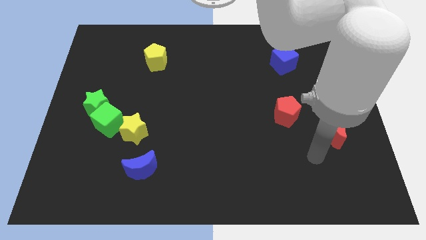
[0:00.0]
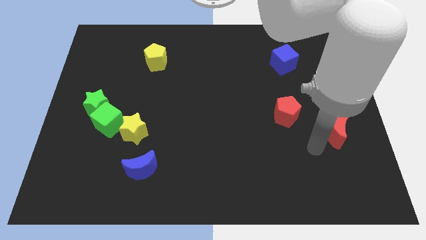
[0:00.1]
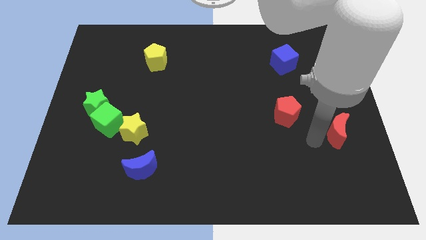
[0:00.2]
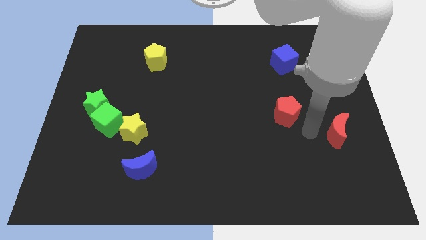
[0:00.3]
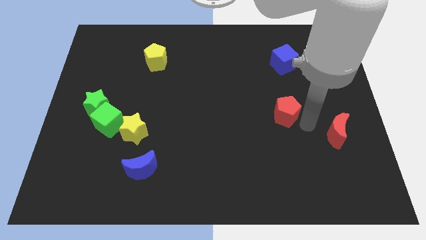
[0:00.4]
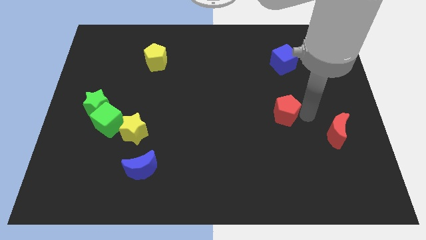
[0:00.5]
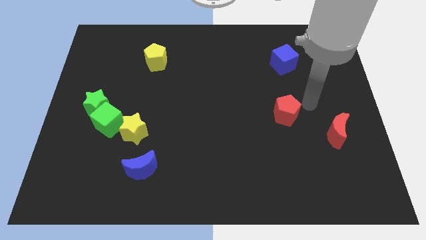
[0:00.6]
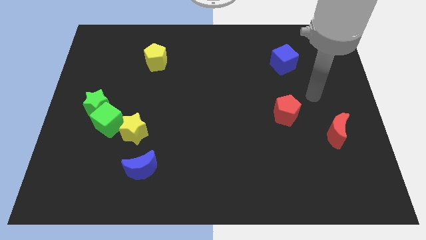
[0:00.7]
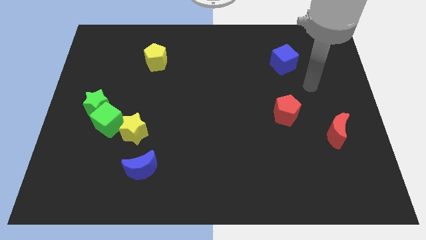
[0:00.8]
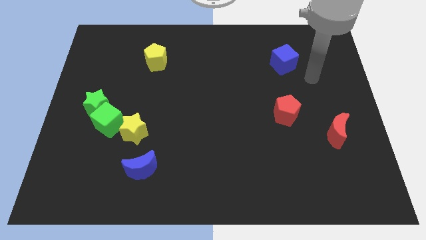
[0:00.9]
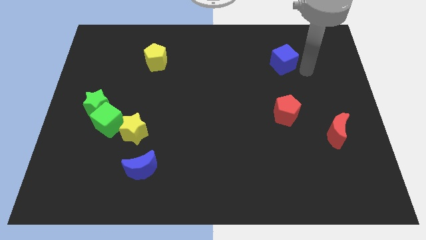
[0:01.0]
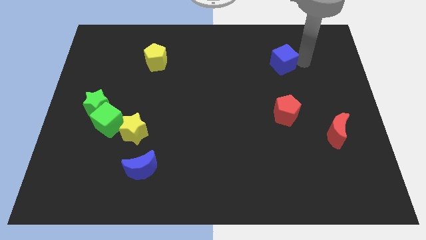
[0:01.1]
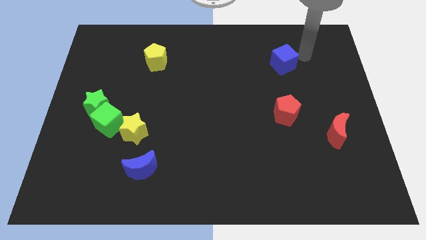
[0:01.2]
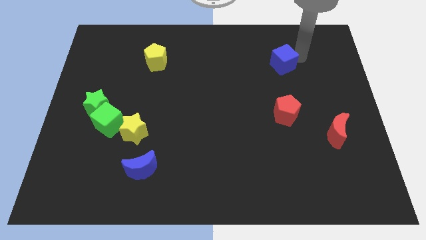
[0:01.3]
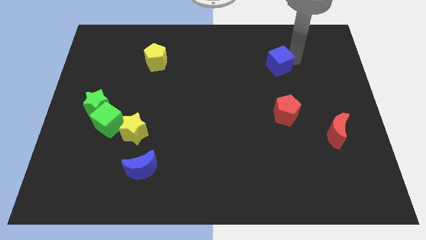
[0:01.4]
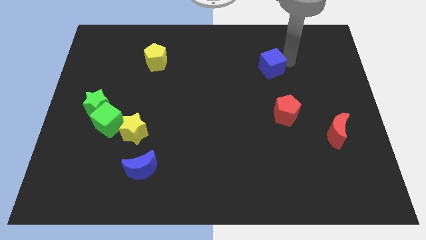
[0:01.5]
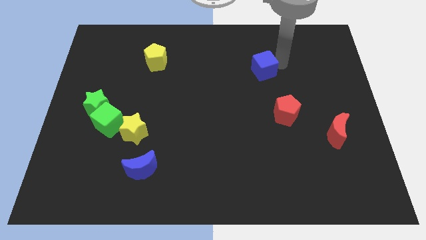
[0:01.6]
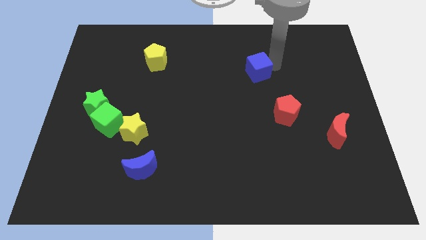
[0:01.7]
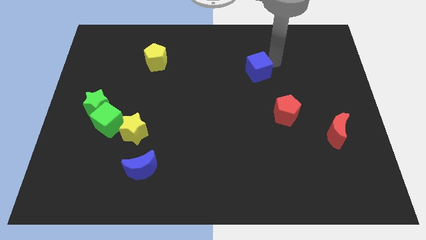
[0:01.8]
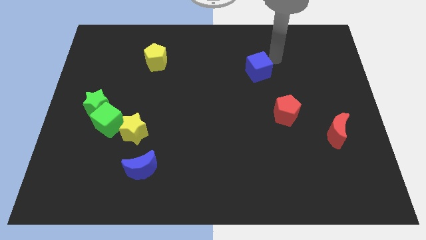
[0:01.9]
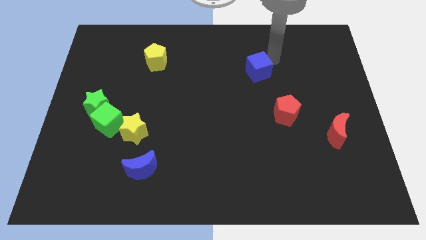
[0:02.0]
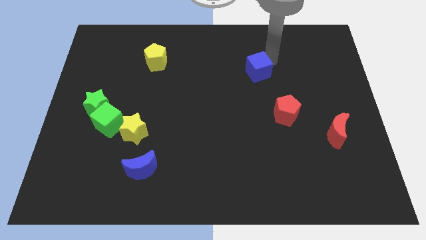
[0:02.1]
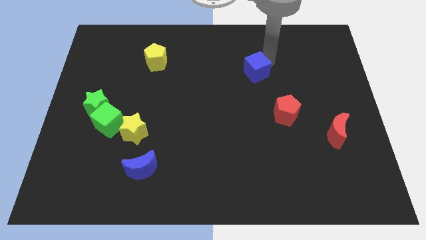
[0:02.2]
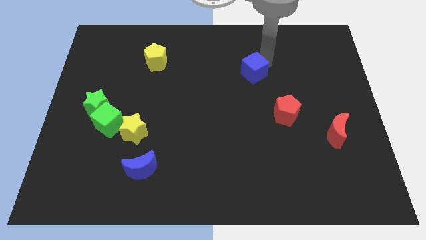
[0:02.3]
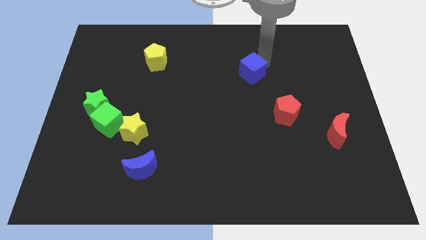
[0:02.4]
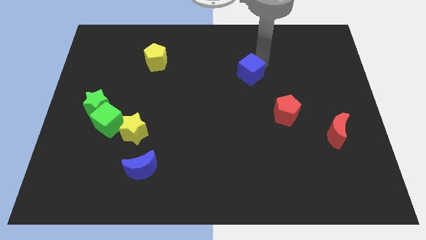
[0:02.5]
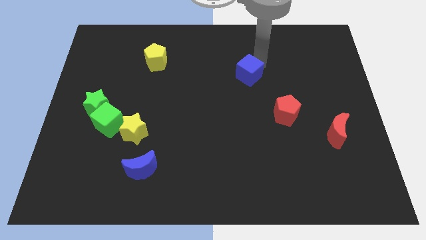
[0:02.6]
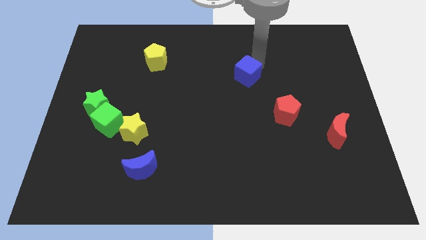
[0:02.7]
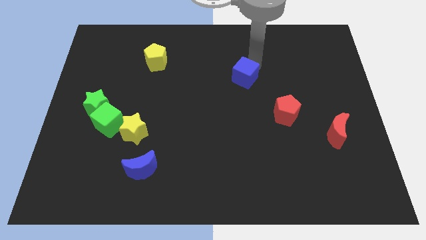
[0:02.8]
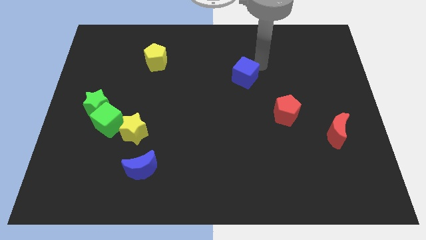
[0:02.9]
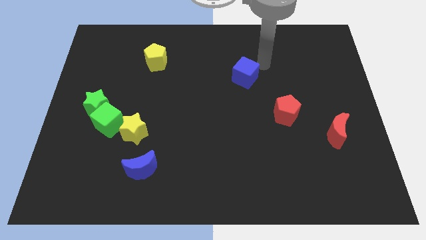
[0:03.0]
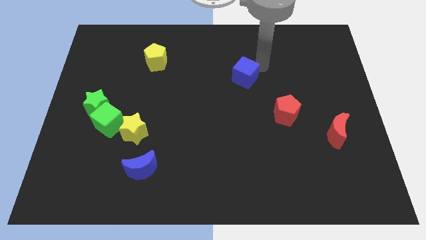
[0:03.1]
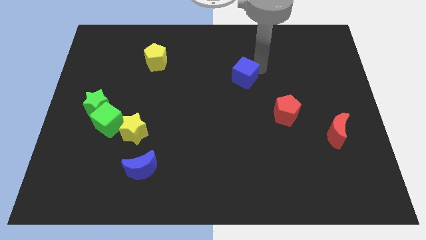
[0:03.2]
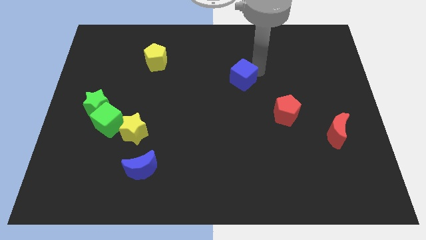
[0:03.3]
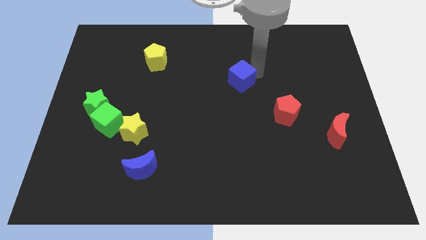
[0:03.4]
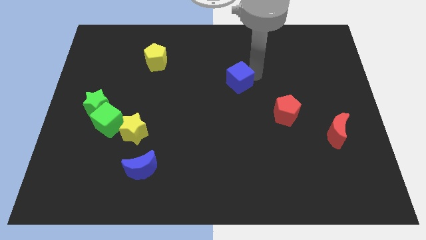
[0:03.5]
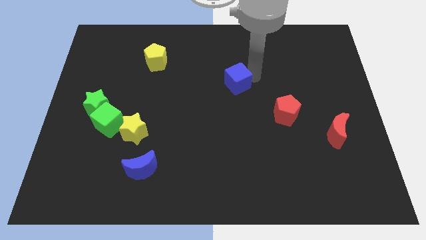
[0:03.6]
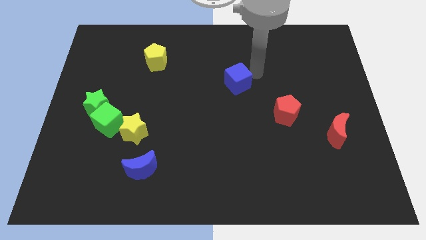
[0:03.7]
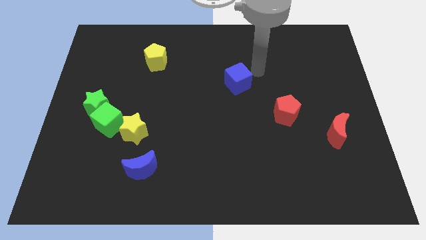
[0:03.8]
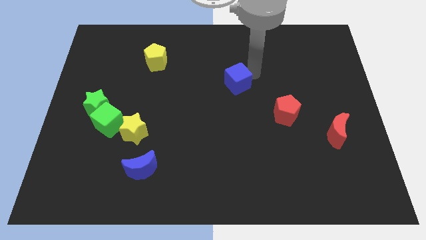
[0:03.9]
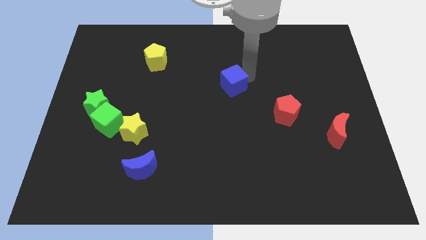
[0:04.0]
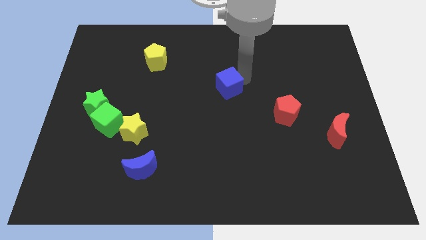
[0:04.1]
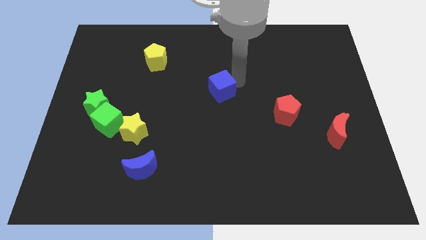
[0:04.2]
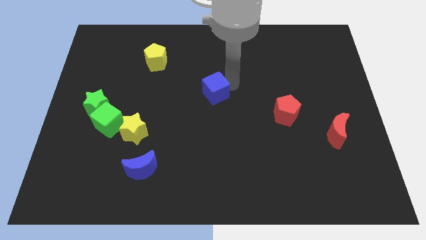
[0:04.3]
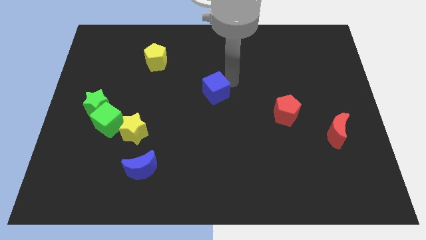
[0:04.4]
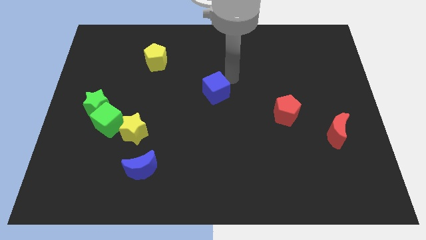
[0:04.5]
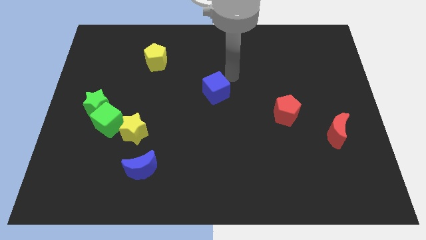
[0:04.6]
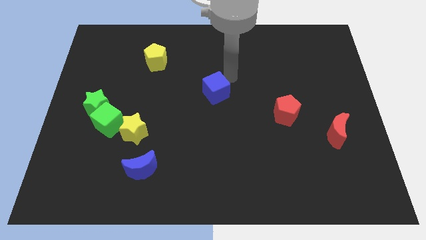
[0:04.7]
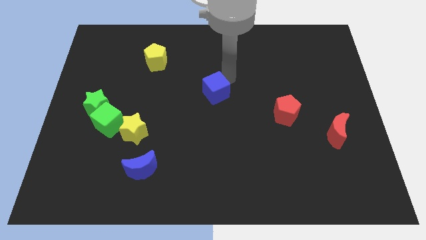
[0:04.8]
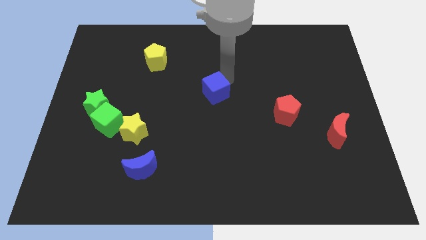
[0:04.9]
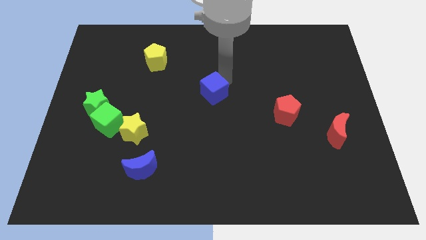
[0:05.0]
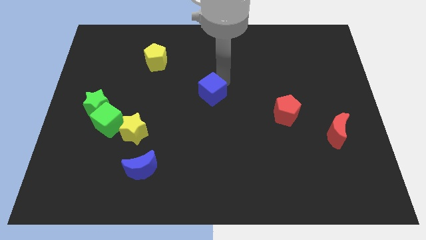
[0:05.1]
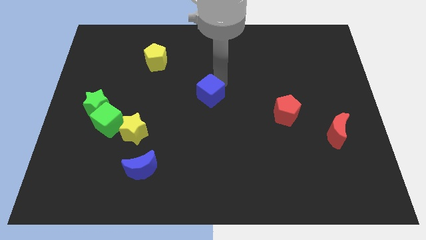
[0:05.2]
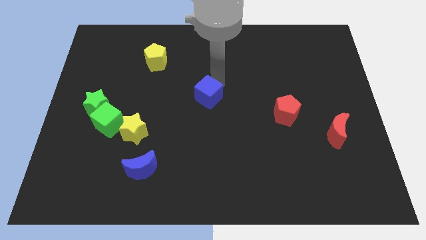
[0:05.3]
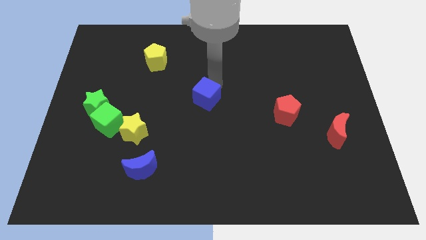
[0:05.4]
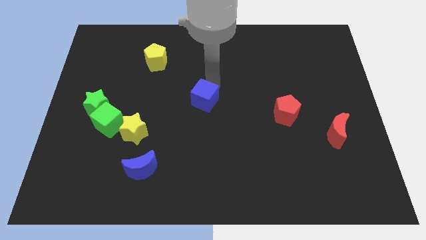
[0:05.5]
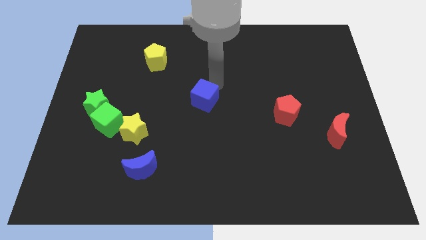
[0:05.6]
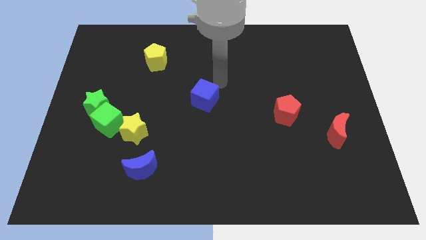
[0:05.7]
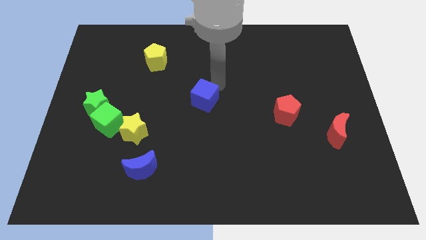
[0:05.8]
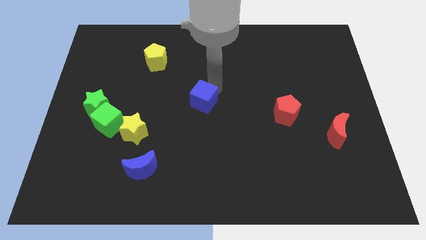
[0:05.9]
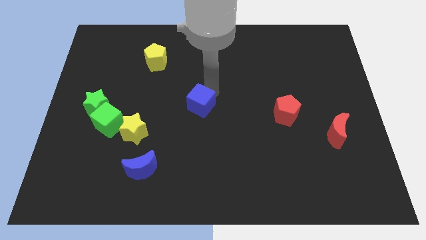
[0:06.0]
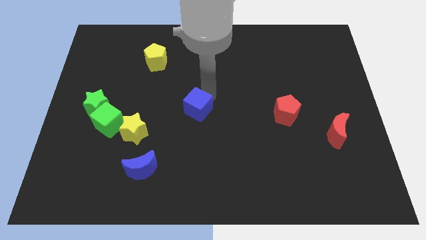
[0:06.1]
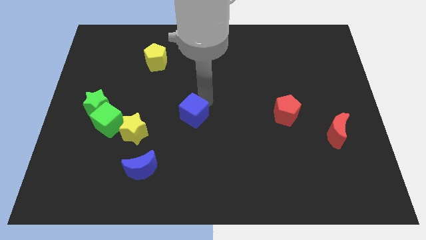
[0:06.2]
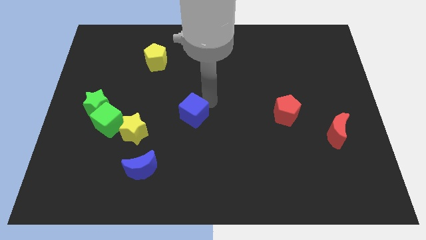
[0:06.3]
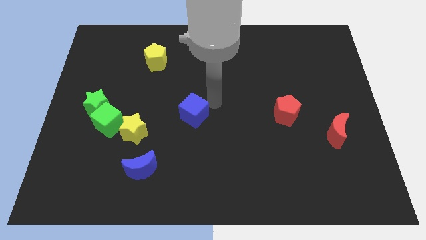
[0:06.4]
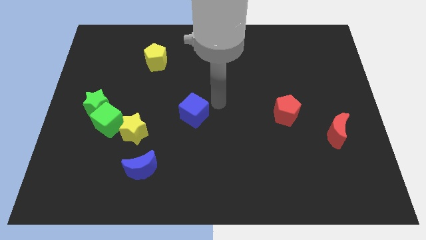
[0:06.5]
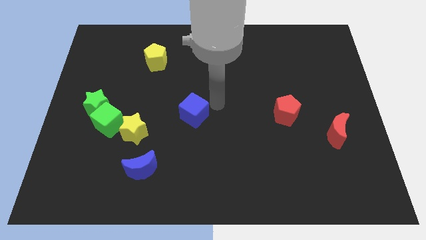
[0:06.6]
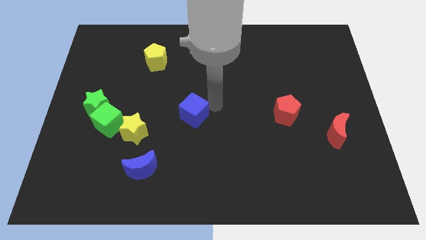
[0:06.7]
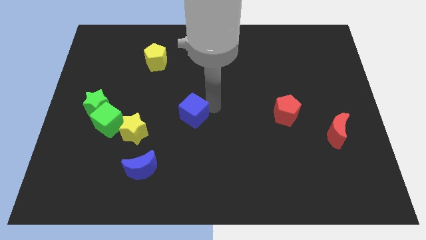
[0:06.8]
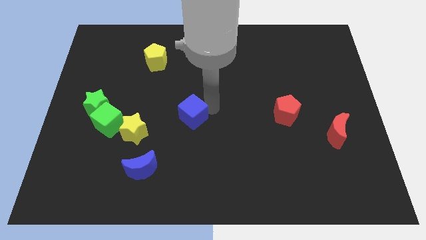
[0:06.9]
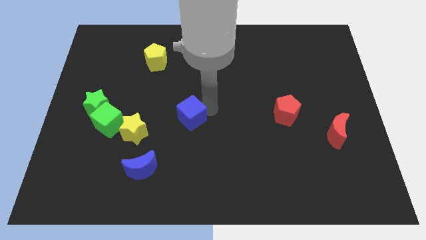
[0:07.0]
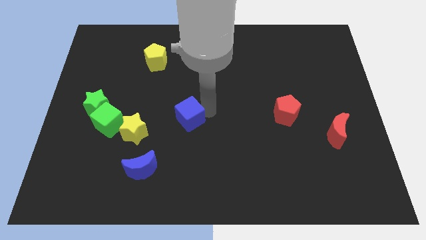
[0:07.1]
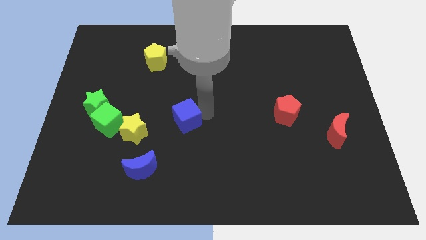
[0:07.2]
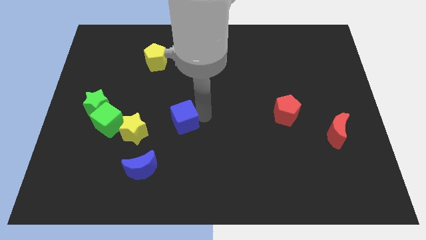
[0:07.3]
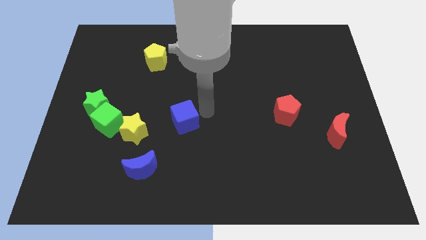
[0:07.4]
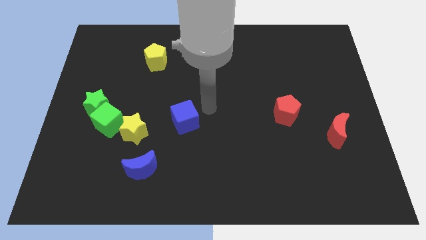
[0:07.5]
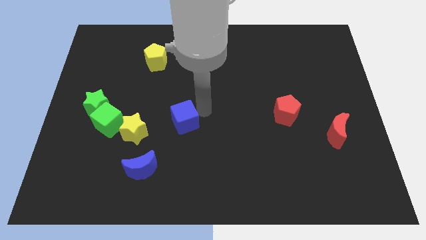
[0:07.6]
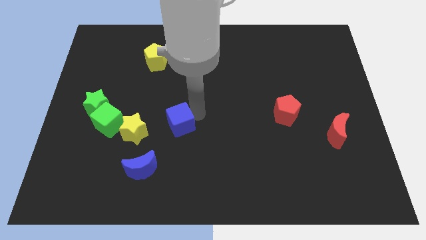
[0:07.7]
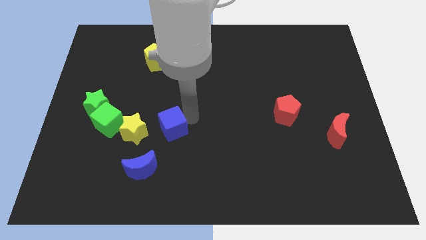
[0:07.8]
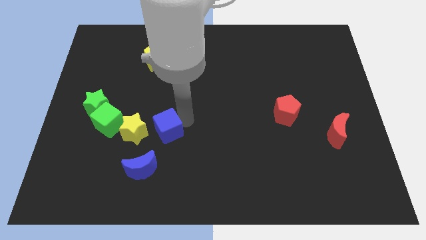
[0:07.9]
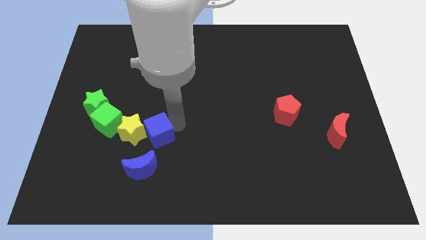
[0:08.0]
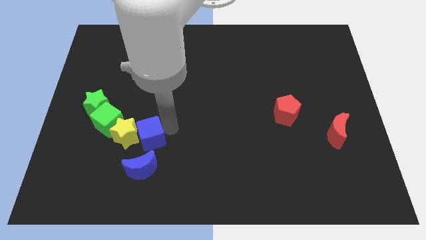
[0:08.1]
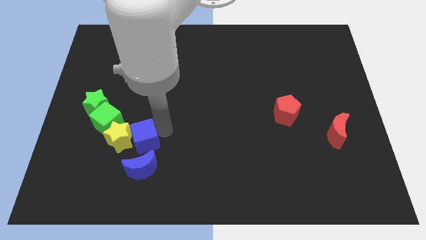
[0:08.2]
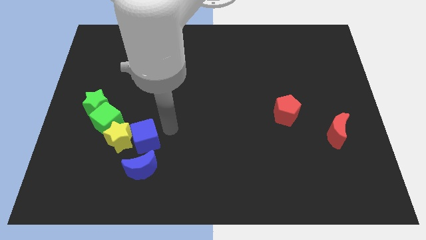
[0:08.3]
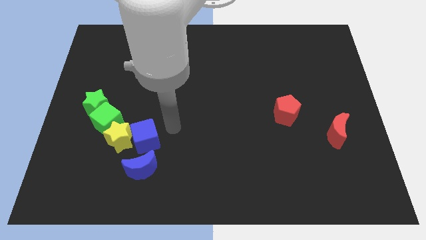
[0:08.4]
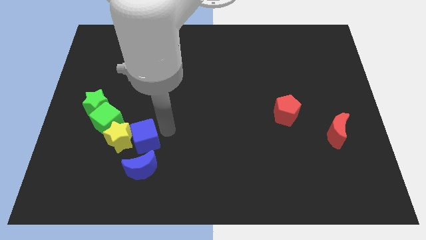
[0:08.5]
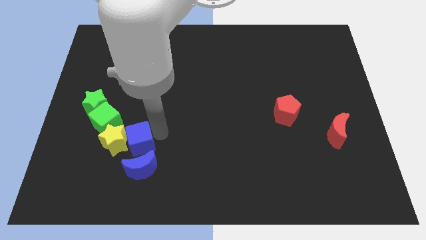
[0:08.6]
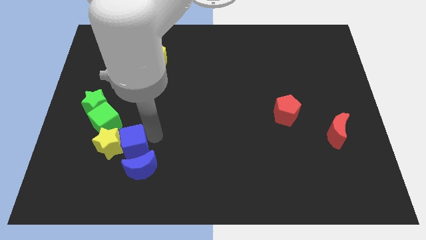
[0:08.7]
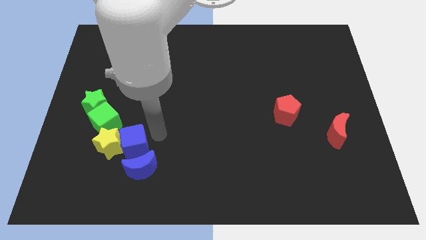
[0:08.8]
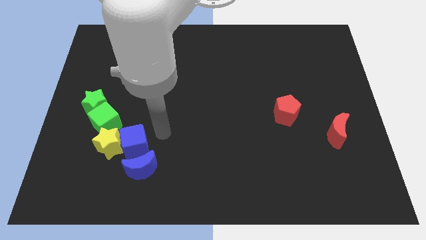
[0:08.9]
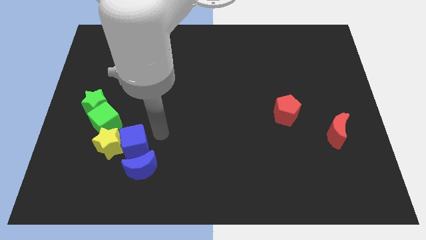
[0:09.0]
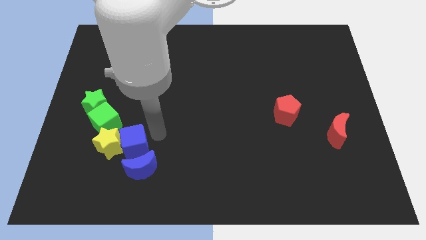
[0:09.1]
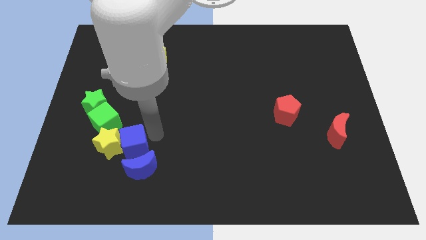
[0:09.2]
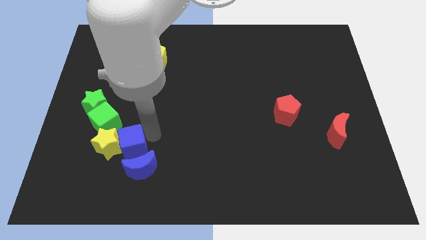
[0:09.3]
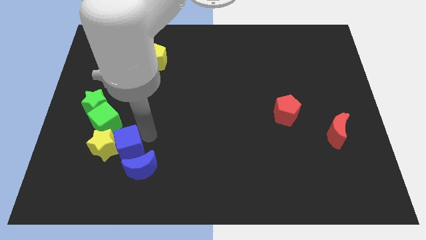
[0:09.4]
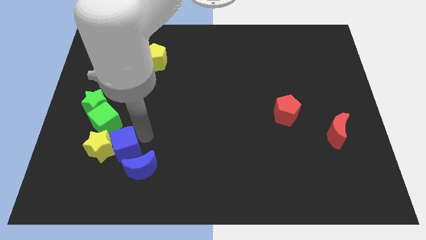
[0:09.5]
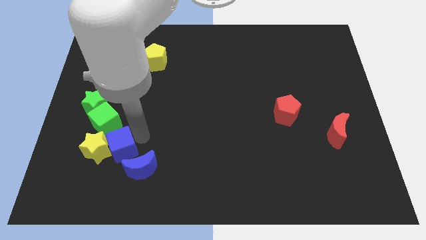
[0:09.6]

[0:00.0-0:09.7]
push the blue cube to the bottom side of the green cube
